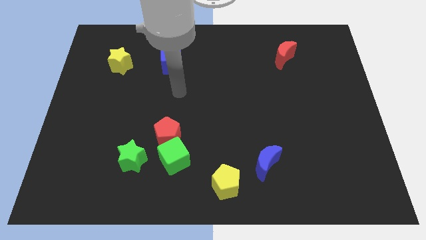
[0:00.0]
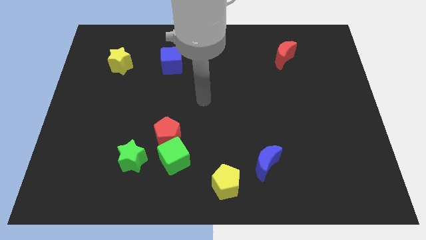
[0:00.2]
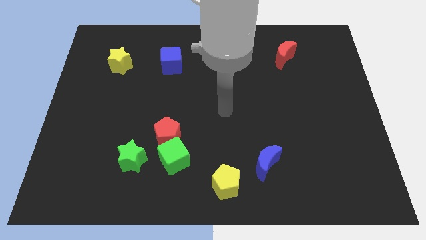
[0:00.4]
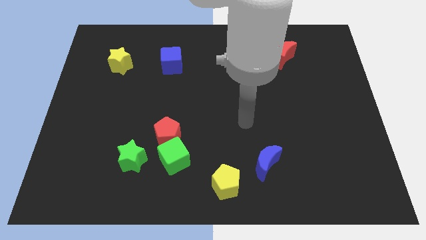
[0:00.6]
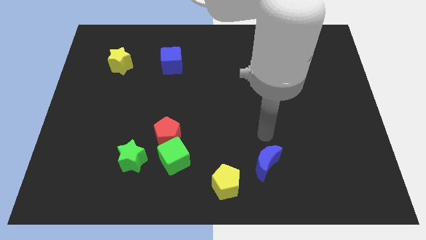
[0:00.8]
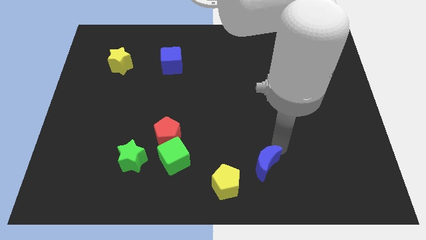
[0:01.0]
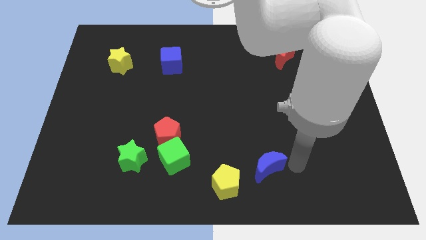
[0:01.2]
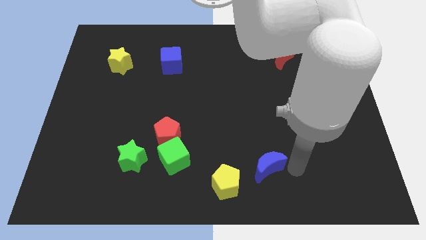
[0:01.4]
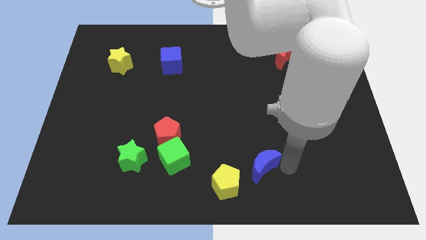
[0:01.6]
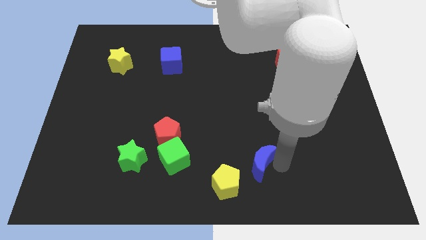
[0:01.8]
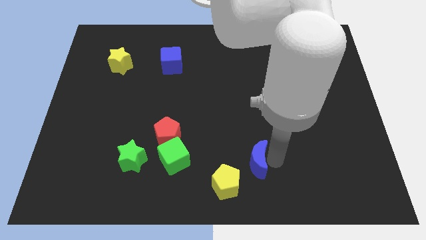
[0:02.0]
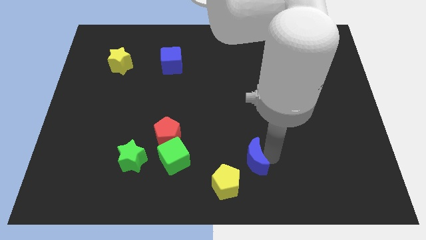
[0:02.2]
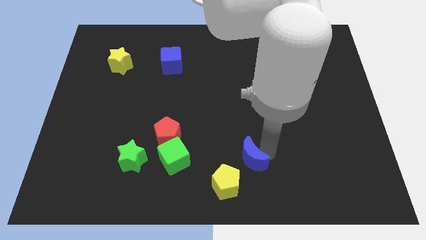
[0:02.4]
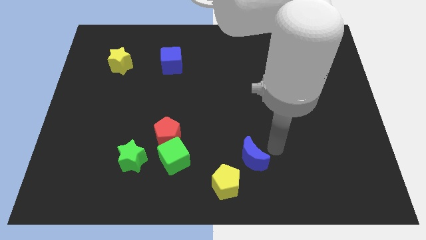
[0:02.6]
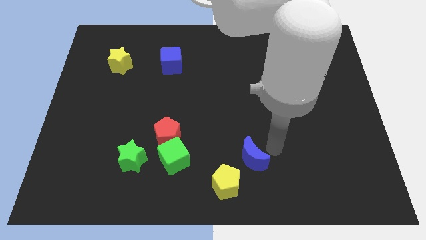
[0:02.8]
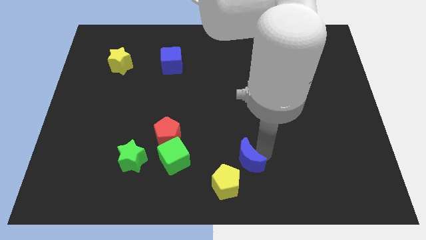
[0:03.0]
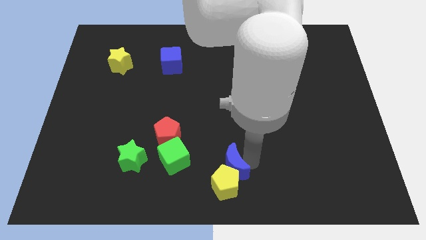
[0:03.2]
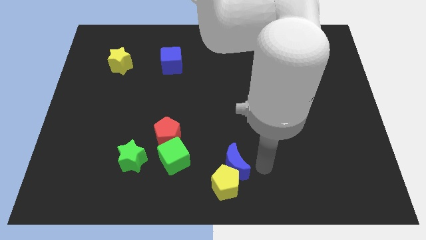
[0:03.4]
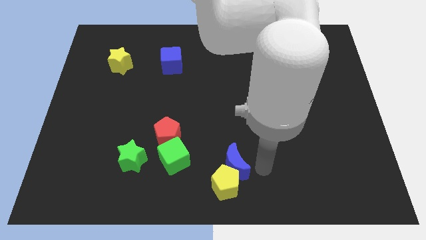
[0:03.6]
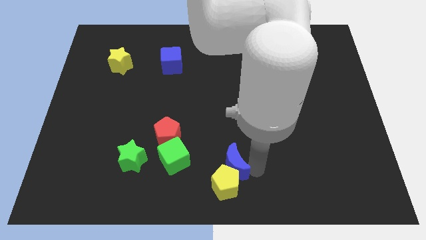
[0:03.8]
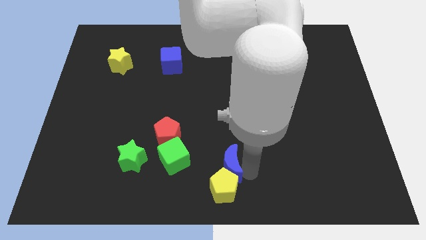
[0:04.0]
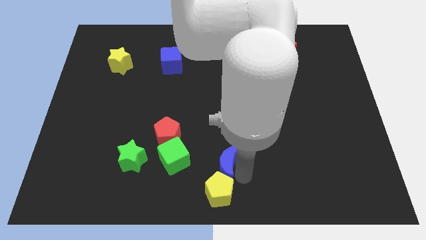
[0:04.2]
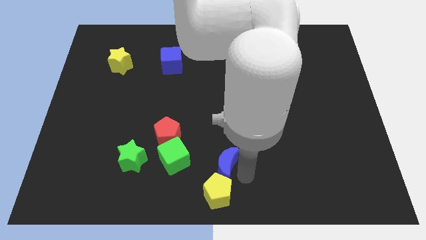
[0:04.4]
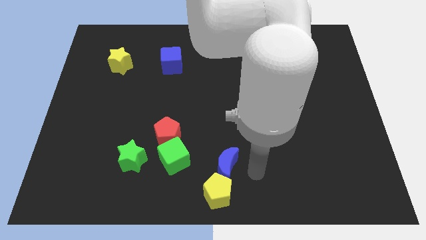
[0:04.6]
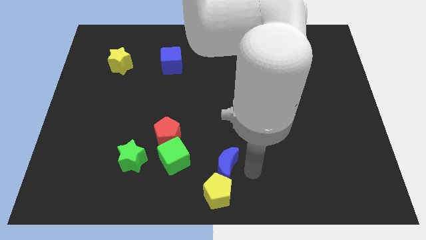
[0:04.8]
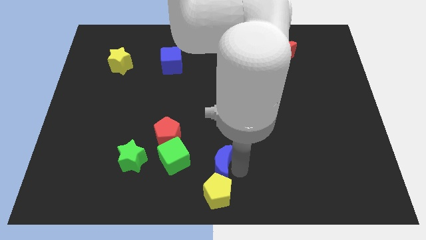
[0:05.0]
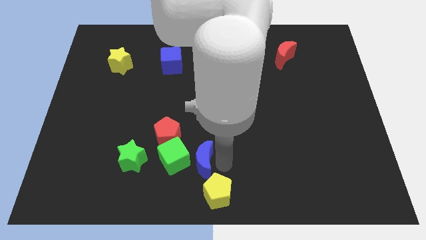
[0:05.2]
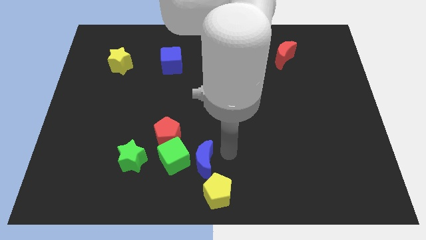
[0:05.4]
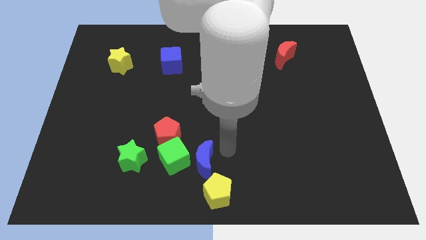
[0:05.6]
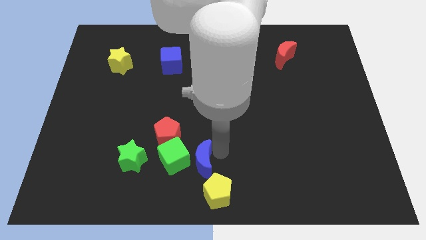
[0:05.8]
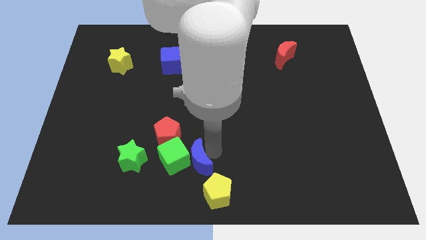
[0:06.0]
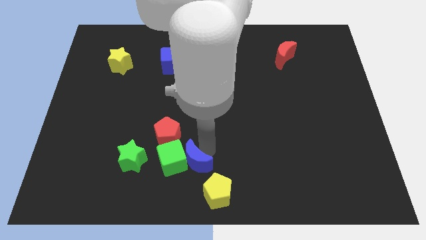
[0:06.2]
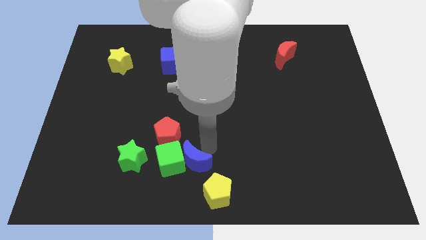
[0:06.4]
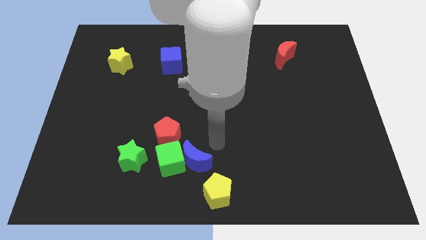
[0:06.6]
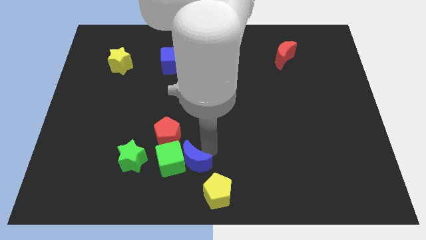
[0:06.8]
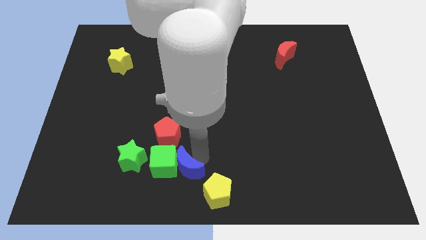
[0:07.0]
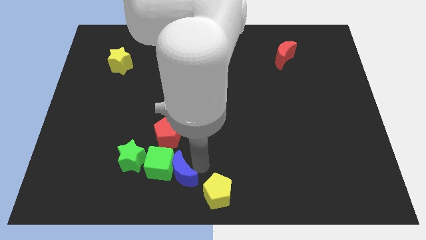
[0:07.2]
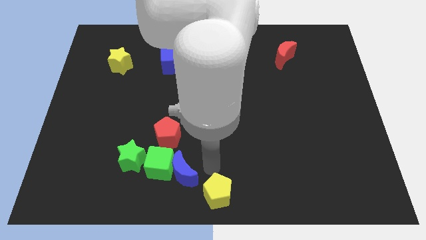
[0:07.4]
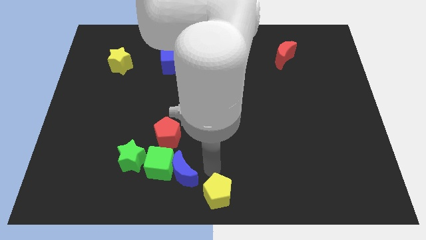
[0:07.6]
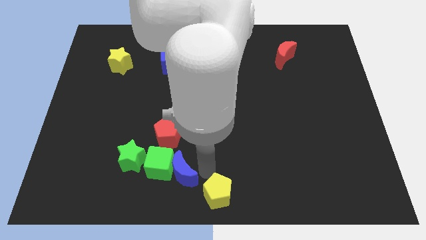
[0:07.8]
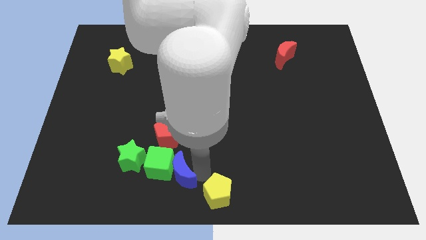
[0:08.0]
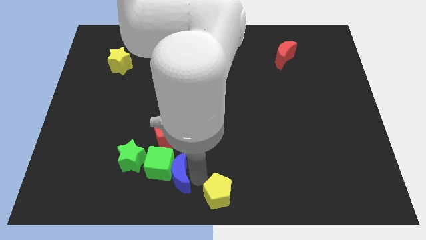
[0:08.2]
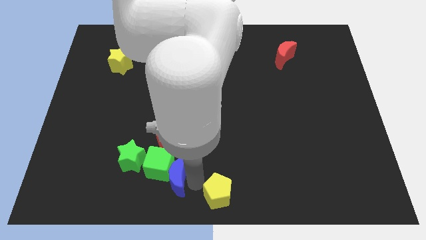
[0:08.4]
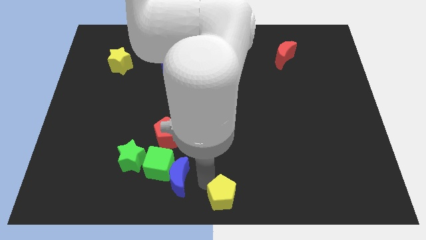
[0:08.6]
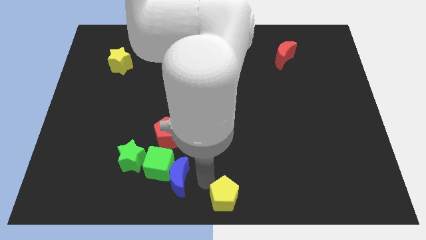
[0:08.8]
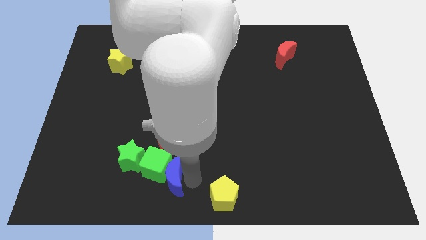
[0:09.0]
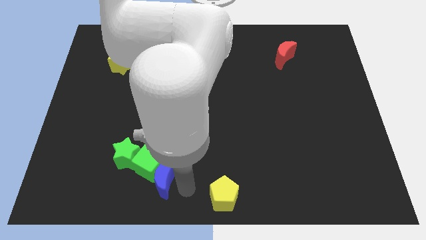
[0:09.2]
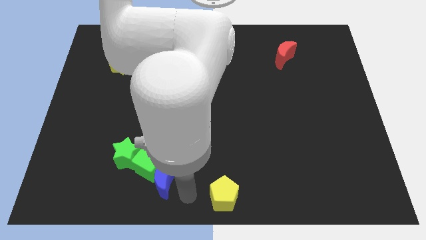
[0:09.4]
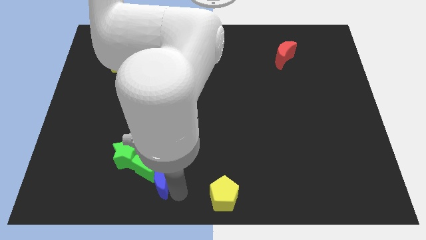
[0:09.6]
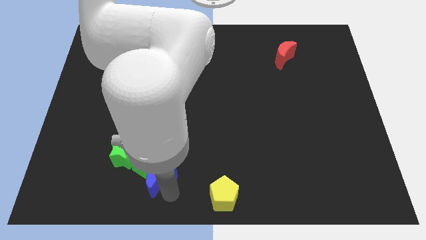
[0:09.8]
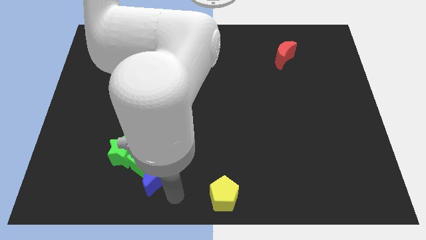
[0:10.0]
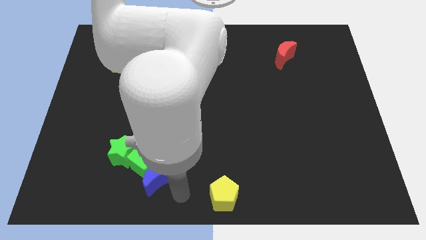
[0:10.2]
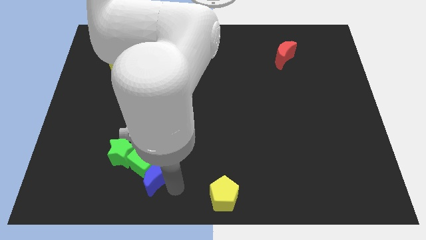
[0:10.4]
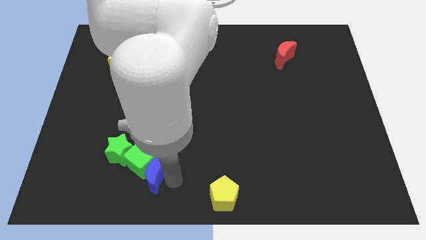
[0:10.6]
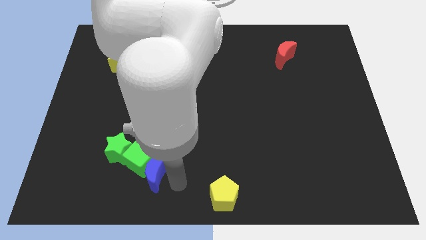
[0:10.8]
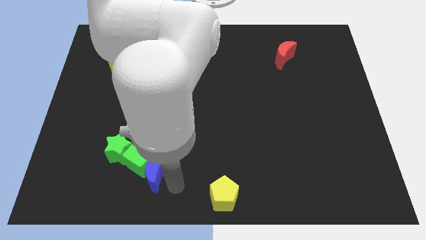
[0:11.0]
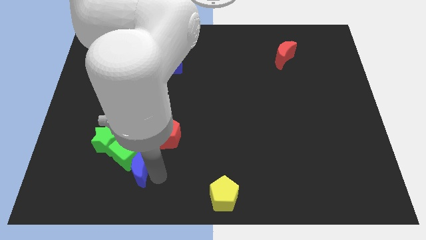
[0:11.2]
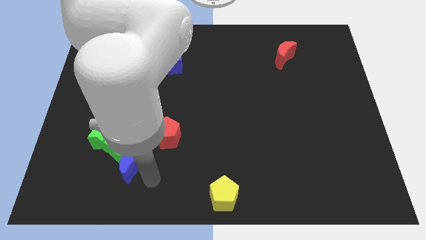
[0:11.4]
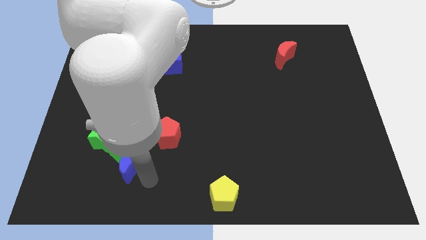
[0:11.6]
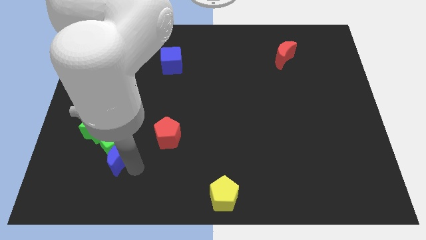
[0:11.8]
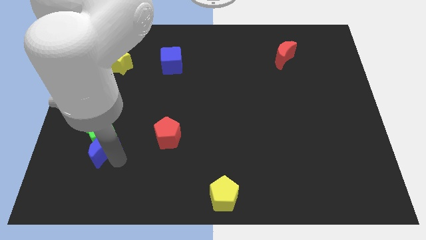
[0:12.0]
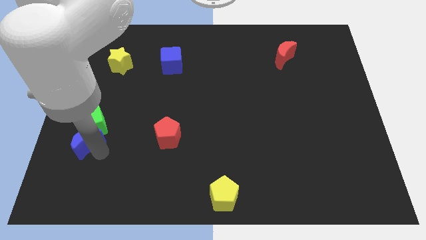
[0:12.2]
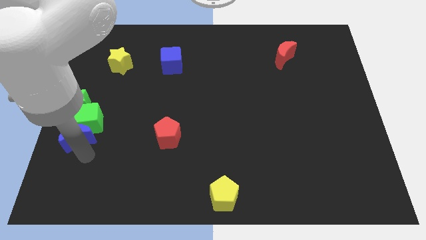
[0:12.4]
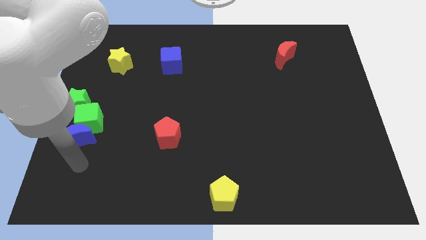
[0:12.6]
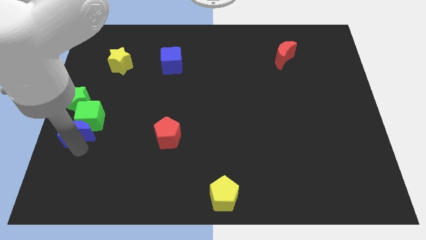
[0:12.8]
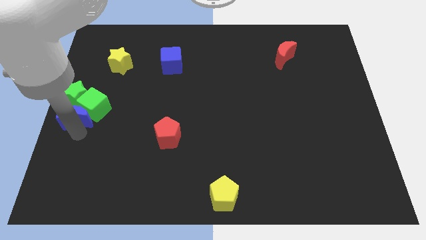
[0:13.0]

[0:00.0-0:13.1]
slide the blue moon close to the green star
